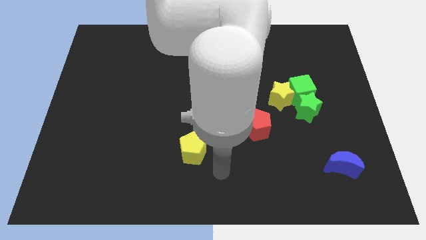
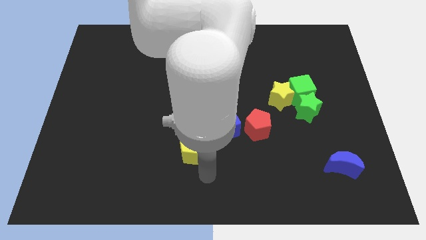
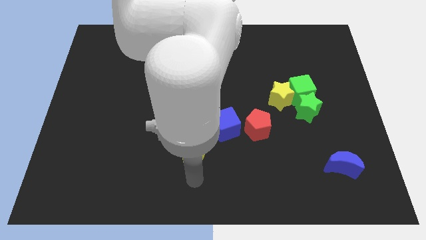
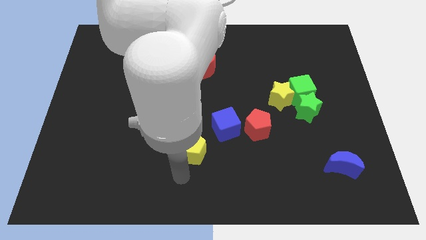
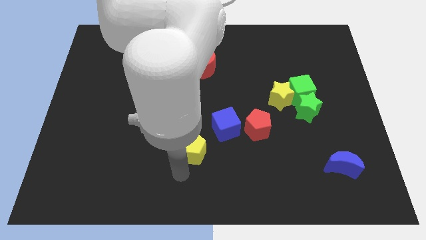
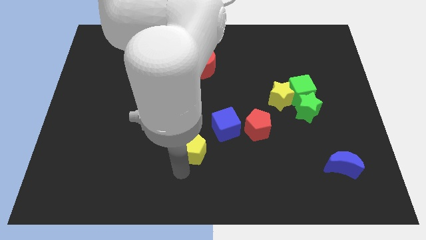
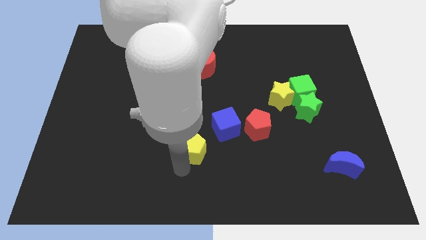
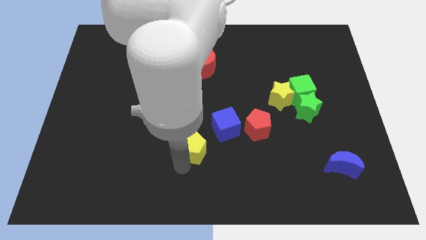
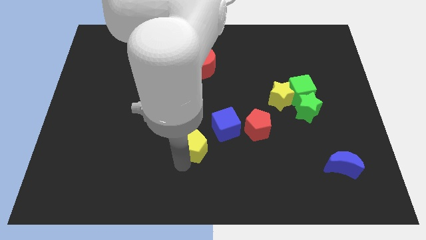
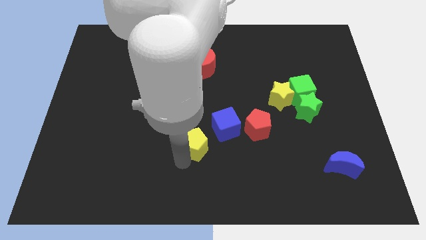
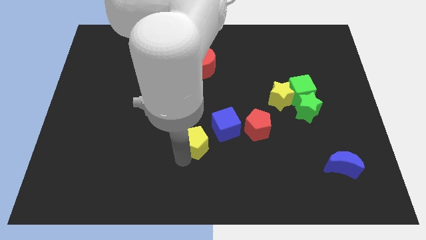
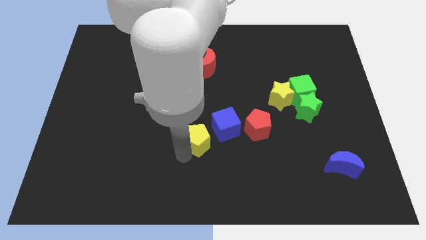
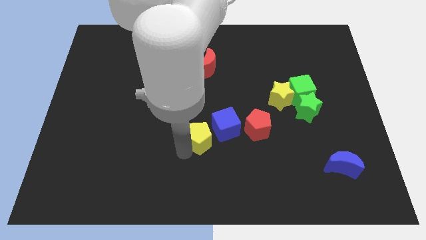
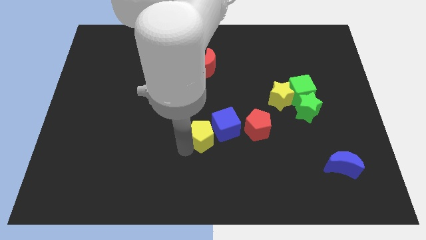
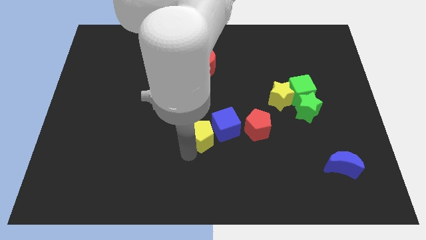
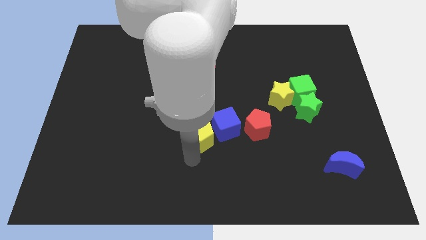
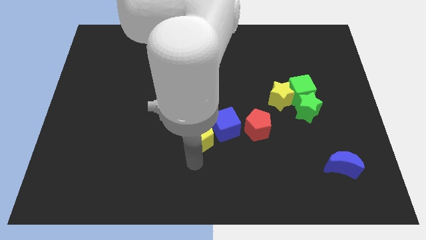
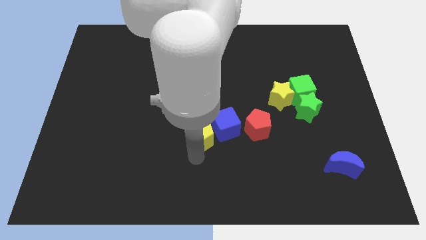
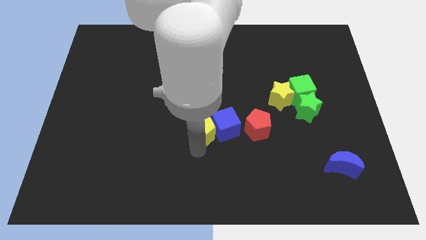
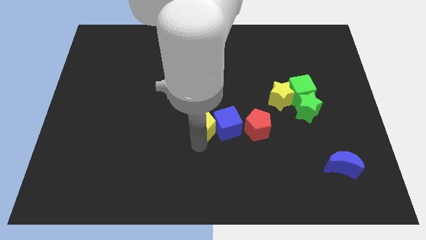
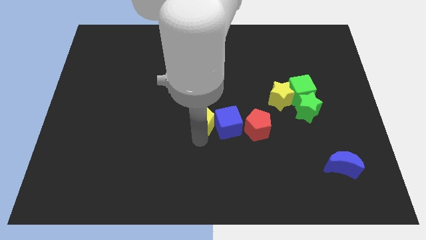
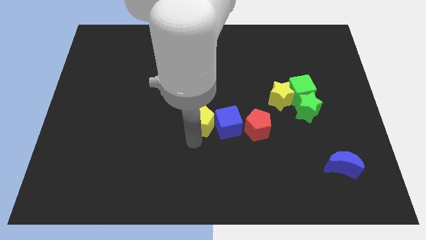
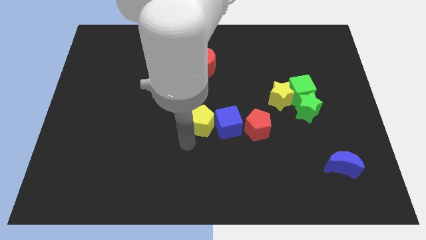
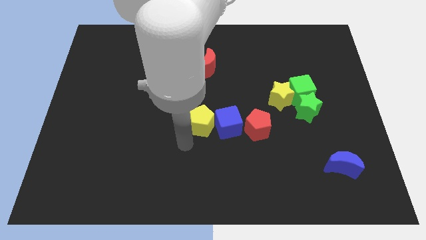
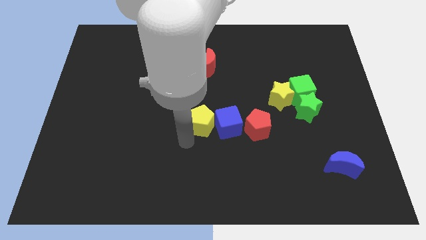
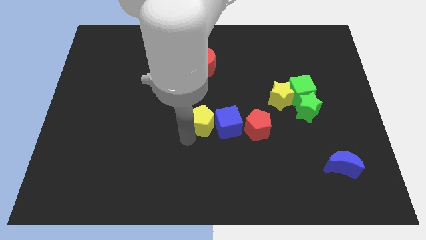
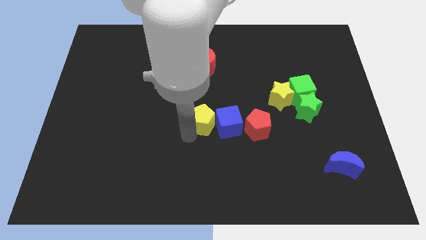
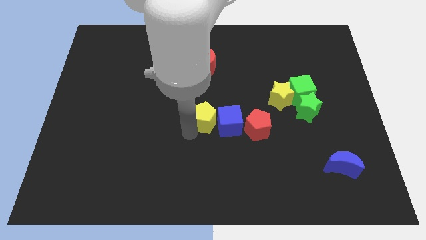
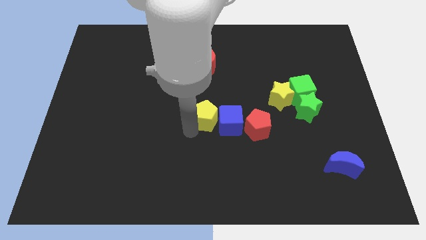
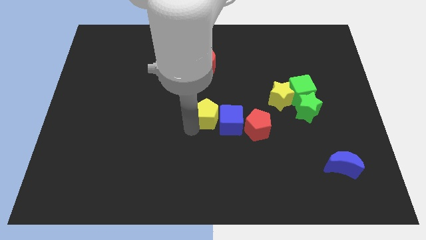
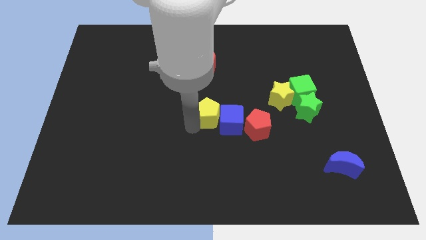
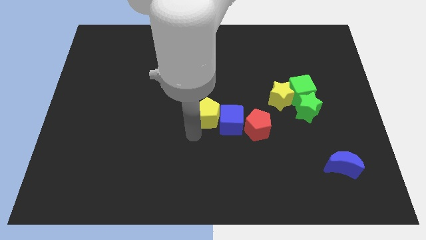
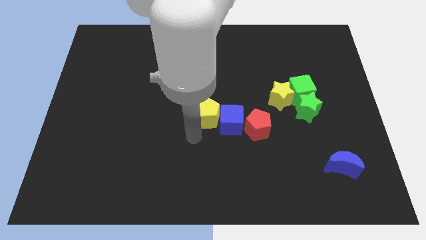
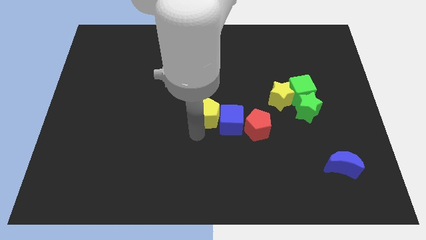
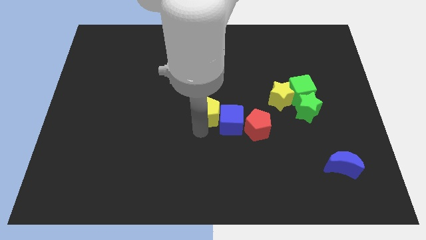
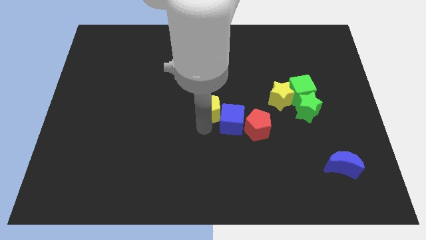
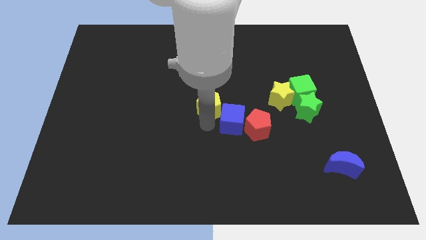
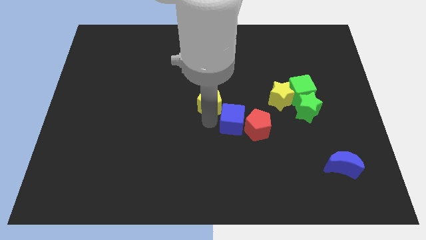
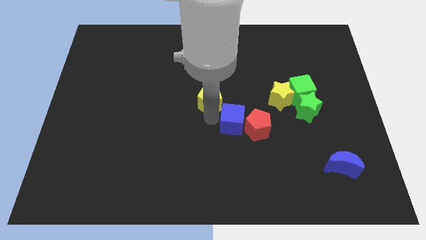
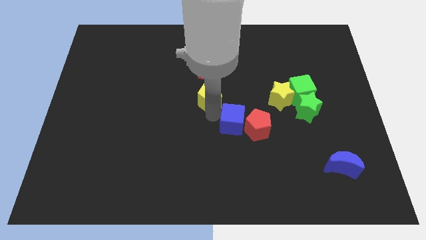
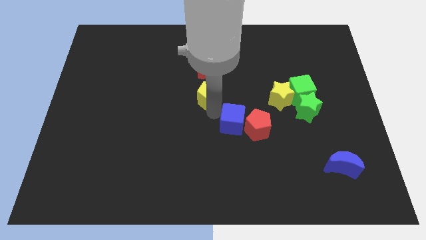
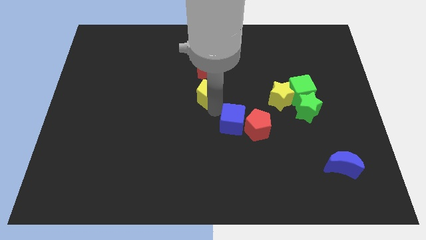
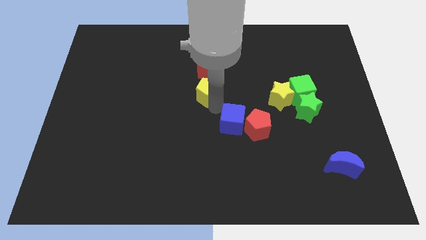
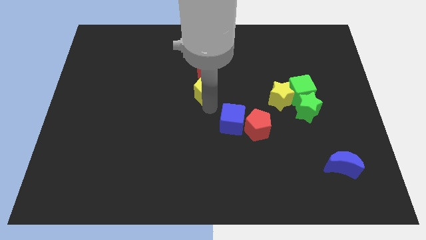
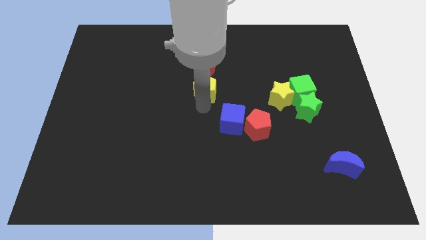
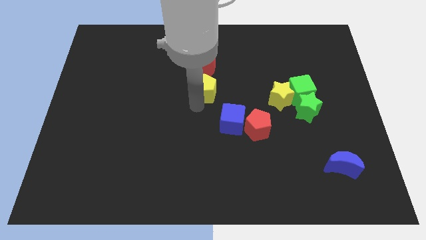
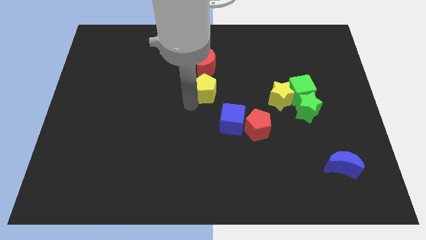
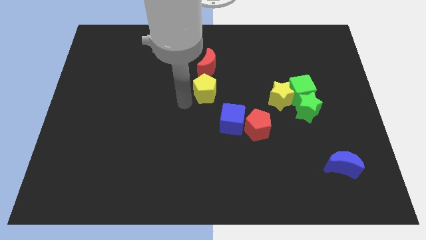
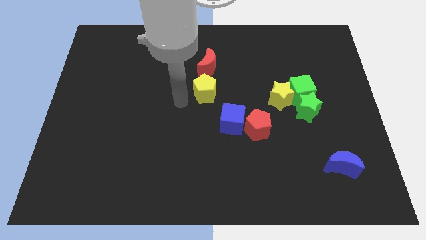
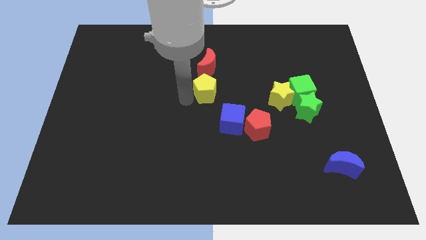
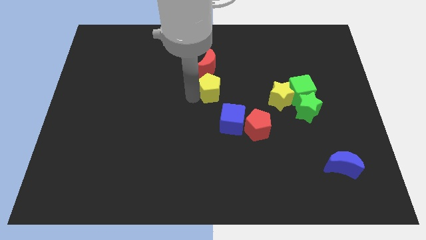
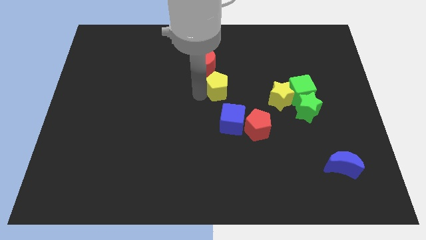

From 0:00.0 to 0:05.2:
slide the yellow pentagon to the bottom right of the red moon

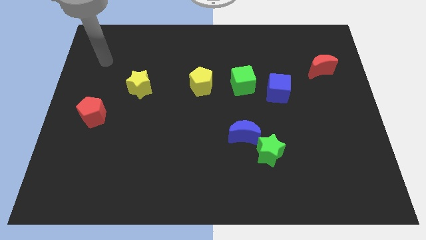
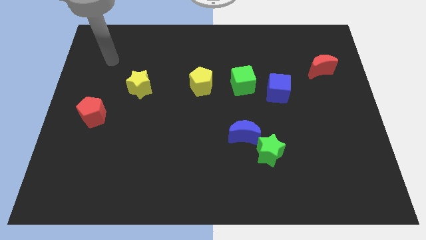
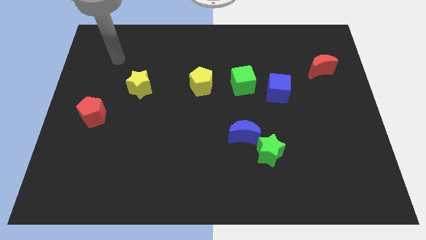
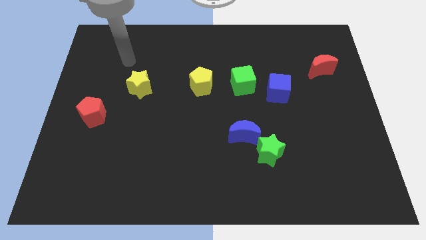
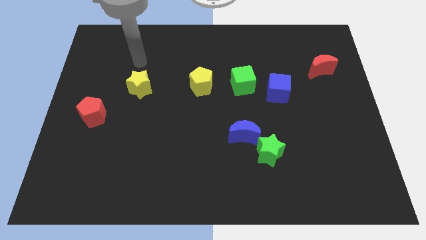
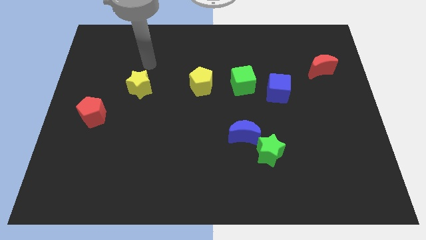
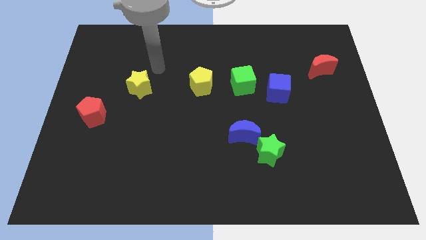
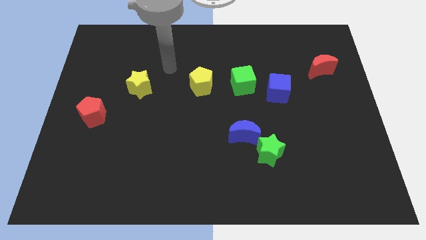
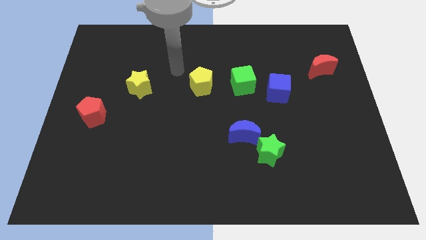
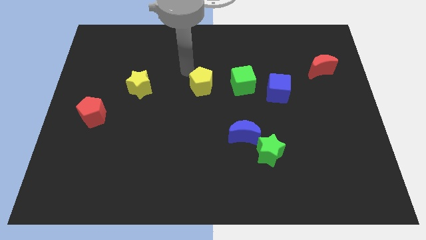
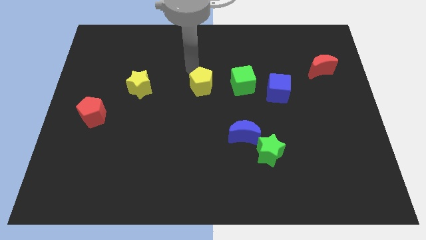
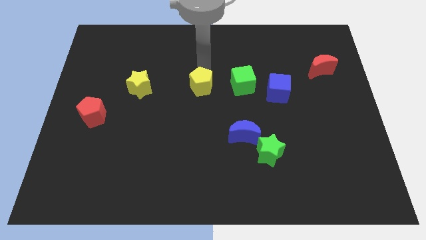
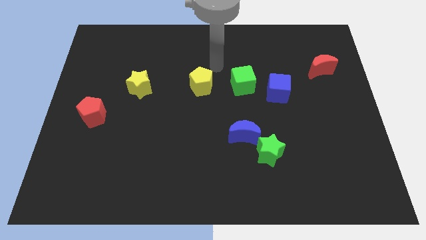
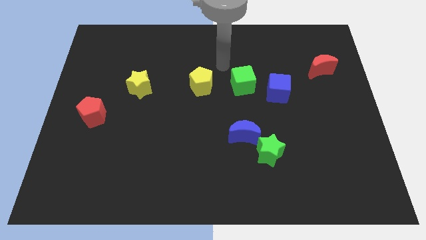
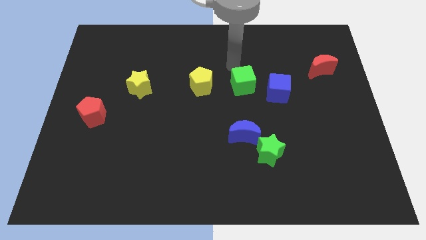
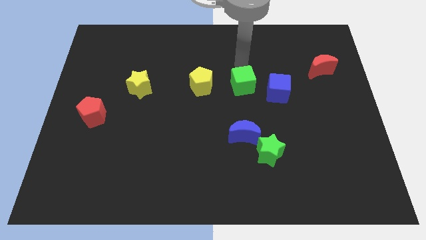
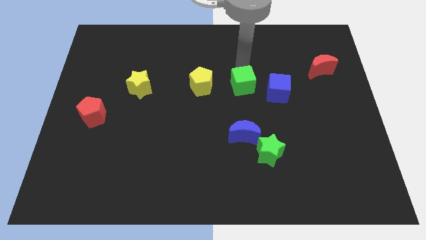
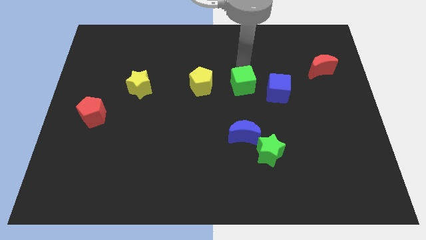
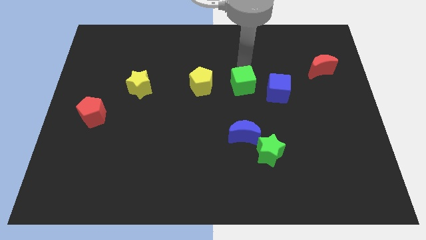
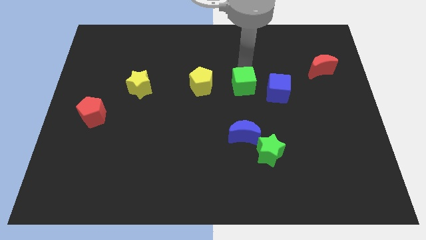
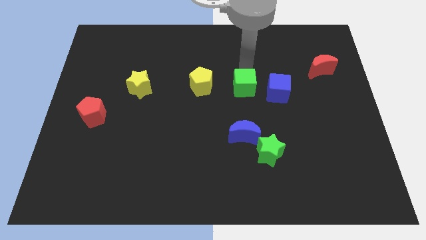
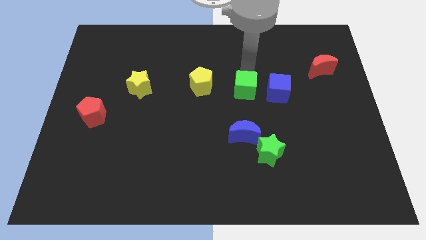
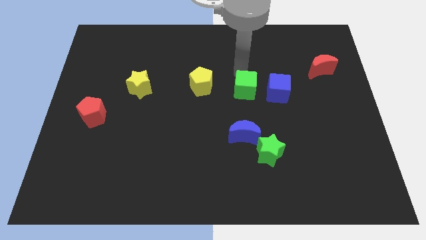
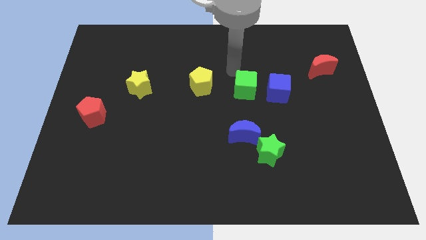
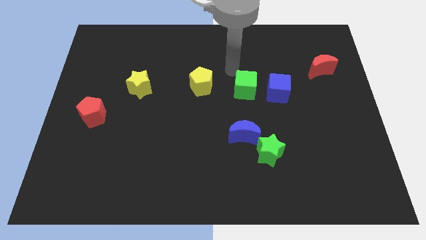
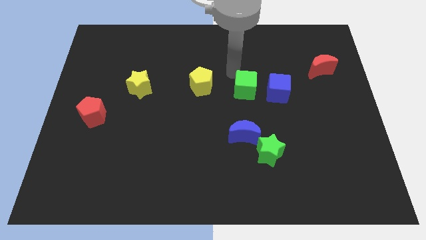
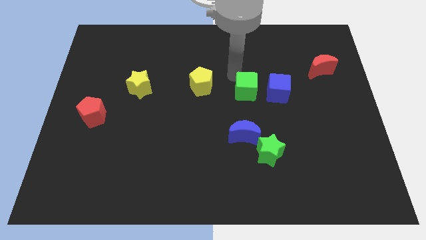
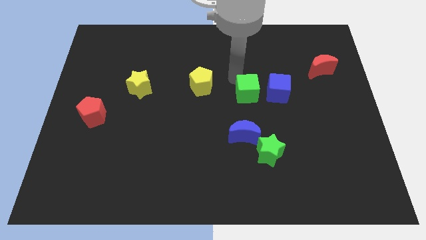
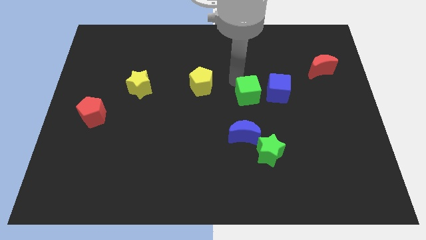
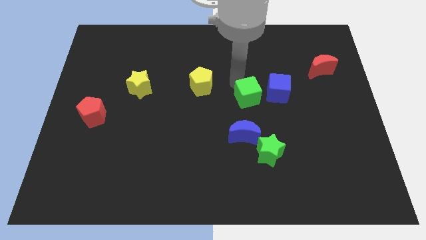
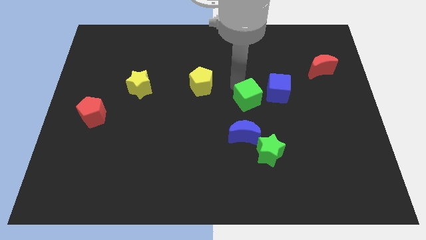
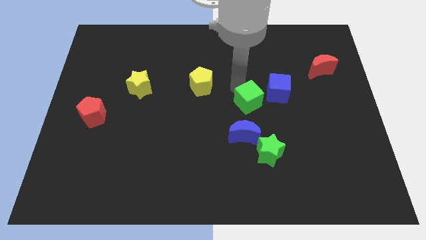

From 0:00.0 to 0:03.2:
push the green cube above the green star
